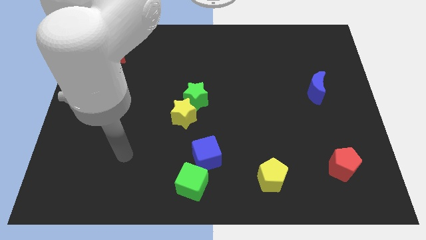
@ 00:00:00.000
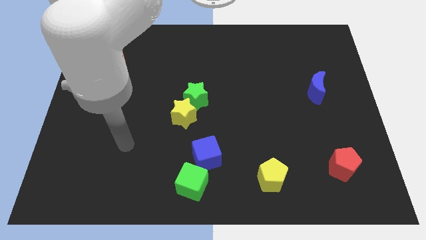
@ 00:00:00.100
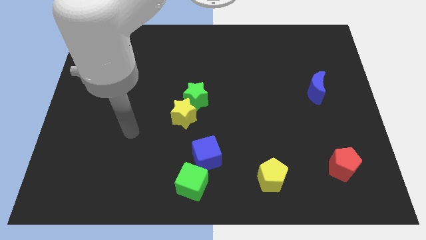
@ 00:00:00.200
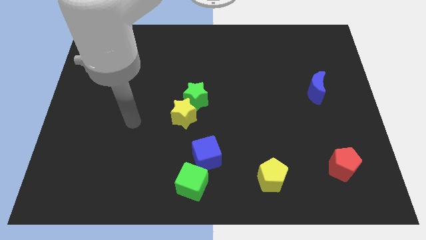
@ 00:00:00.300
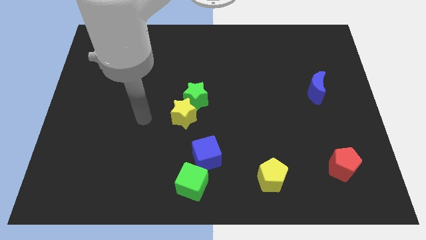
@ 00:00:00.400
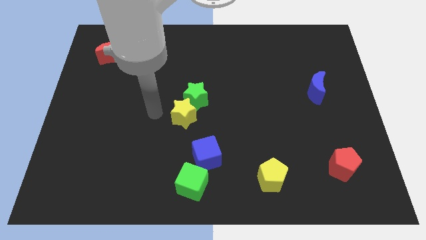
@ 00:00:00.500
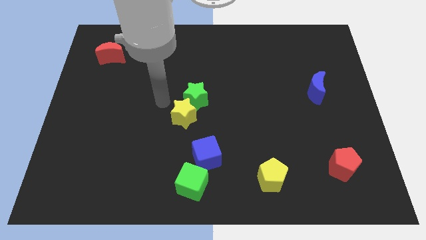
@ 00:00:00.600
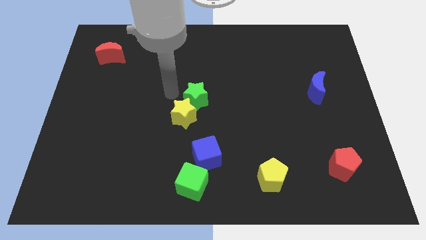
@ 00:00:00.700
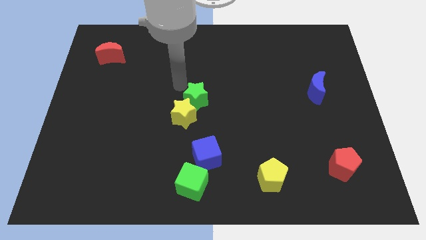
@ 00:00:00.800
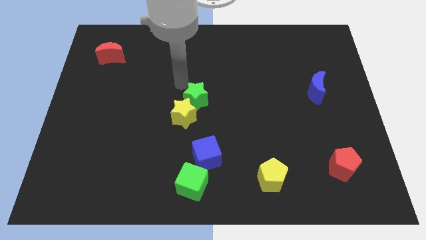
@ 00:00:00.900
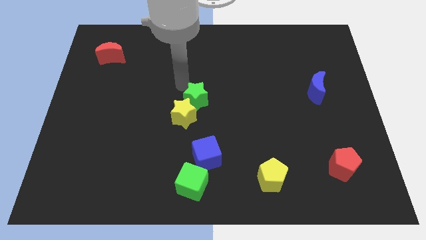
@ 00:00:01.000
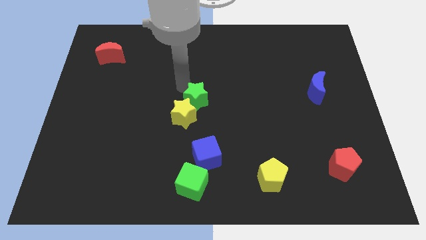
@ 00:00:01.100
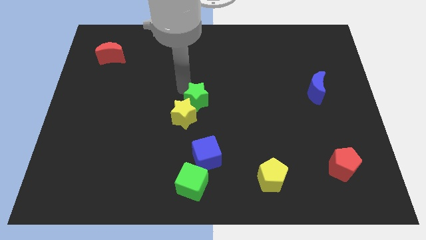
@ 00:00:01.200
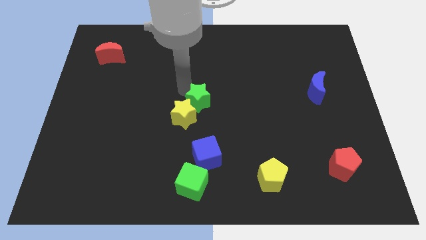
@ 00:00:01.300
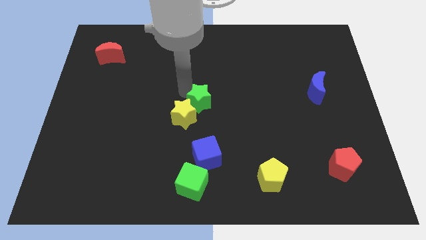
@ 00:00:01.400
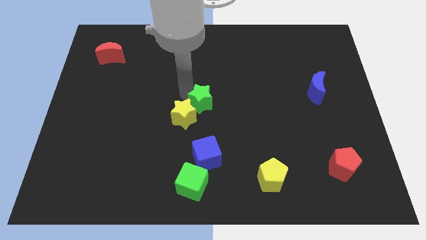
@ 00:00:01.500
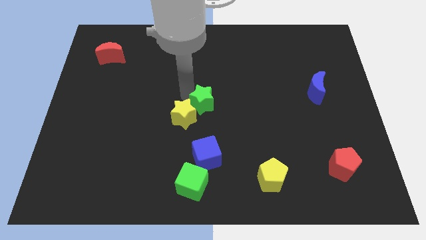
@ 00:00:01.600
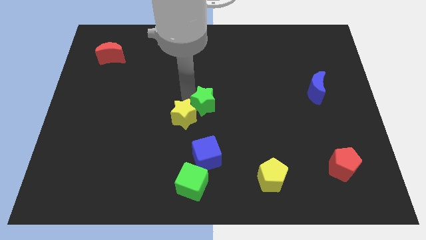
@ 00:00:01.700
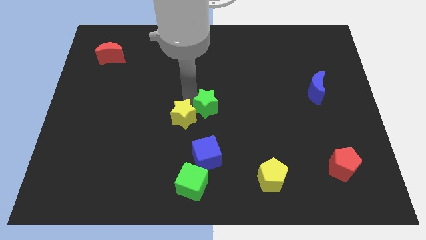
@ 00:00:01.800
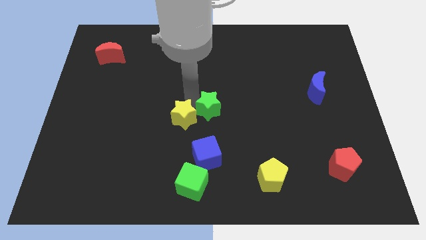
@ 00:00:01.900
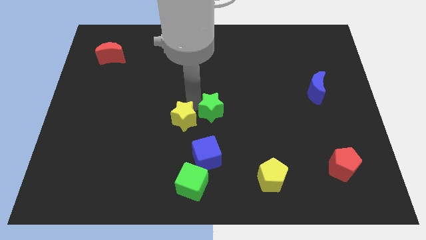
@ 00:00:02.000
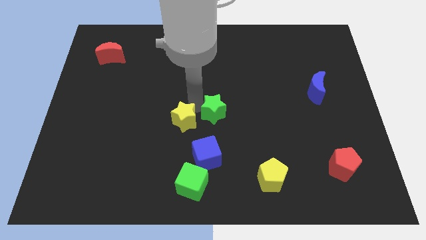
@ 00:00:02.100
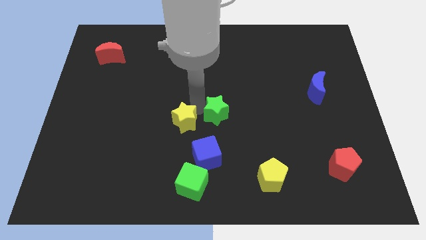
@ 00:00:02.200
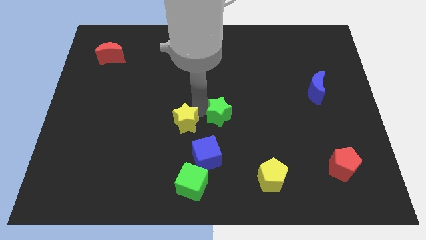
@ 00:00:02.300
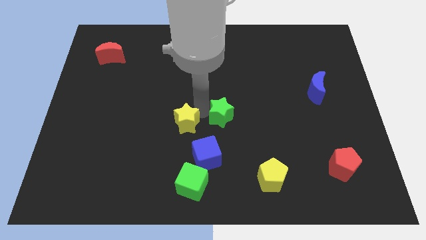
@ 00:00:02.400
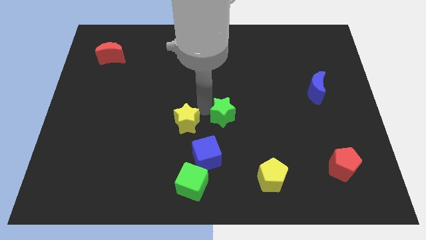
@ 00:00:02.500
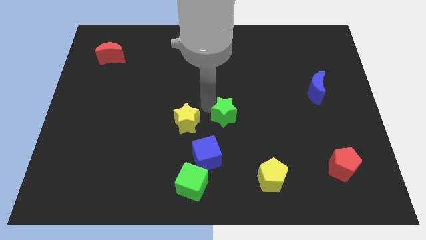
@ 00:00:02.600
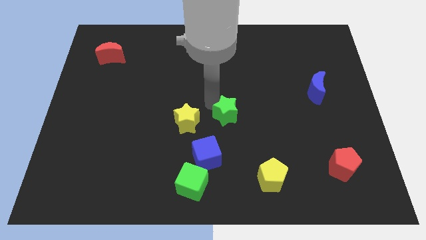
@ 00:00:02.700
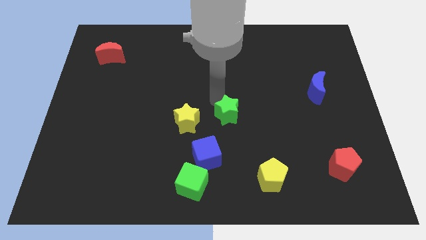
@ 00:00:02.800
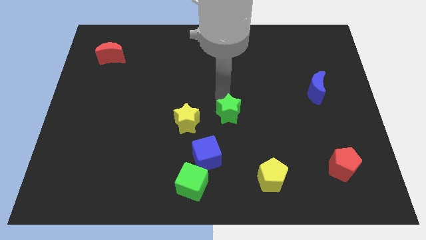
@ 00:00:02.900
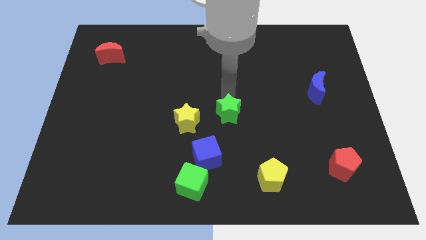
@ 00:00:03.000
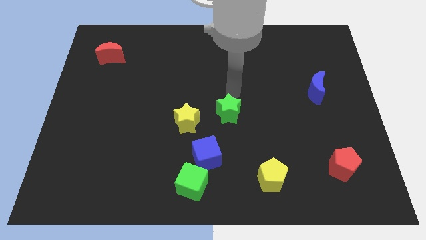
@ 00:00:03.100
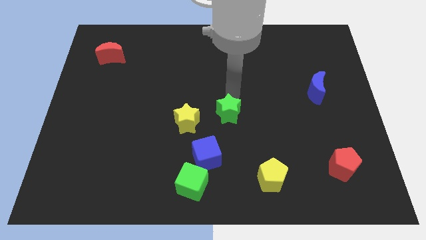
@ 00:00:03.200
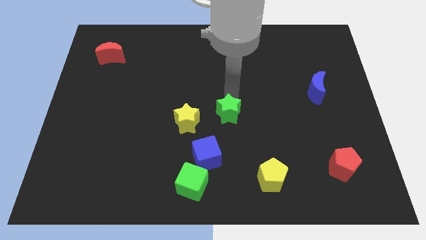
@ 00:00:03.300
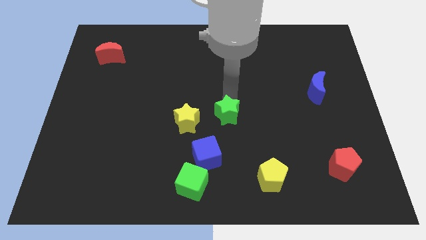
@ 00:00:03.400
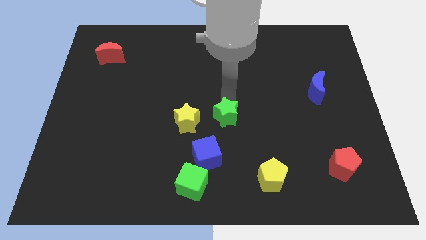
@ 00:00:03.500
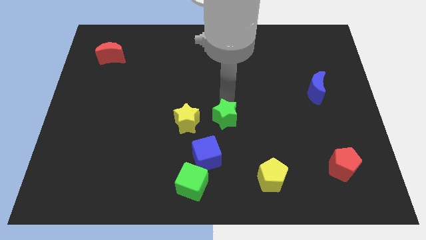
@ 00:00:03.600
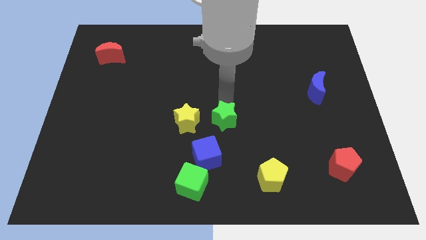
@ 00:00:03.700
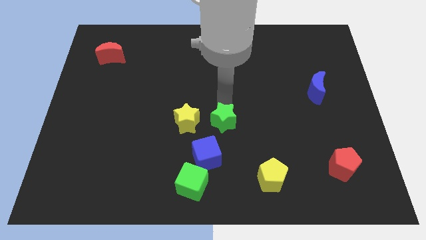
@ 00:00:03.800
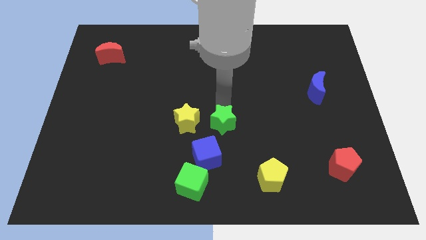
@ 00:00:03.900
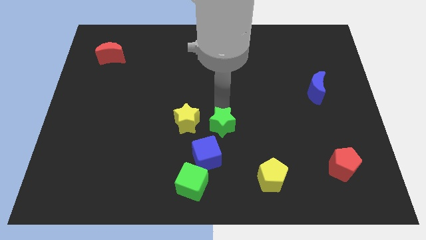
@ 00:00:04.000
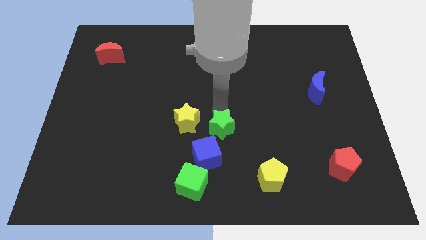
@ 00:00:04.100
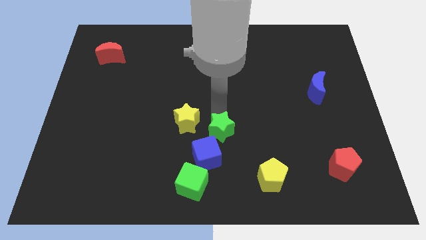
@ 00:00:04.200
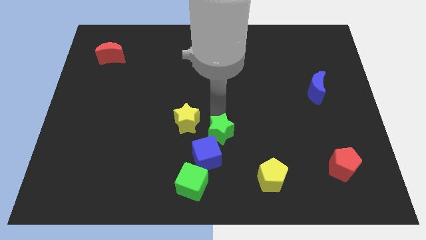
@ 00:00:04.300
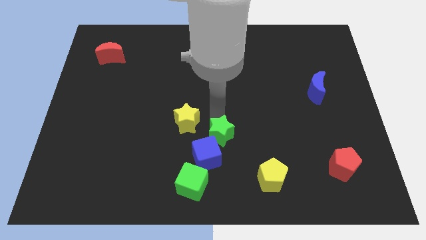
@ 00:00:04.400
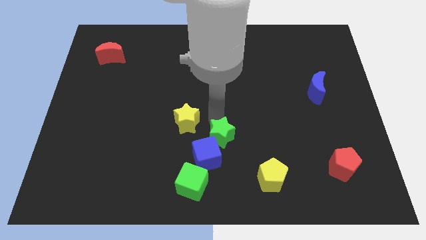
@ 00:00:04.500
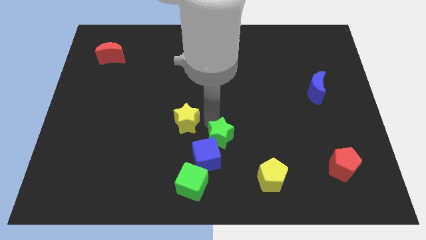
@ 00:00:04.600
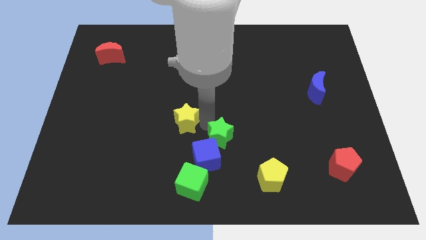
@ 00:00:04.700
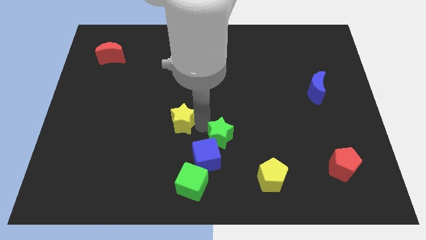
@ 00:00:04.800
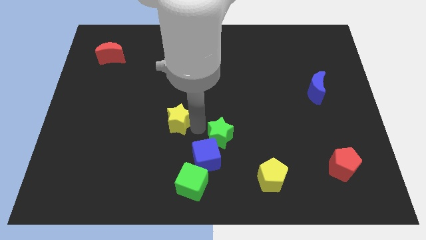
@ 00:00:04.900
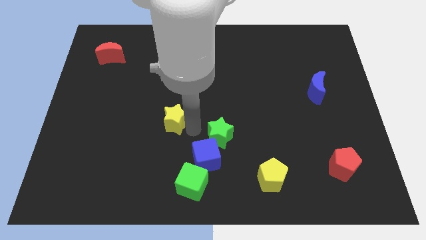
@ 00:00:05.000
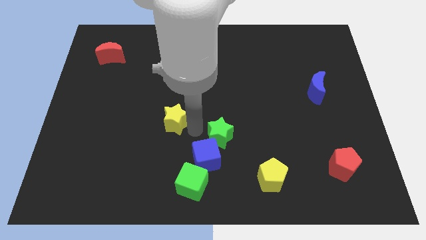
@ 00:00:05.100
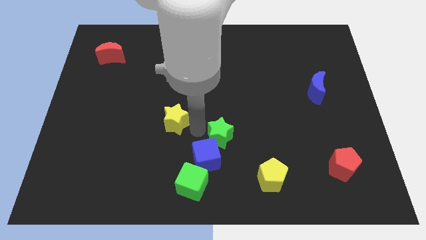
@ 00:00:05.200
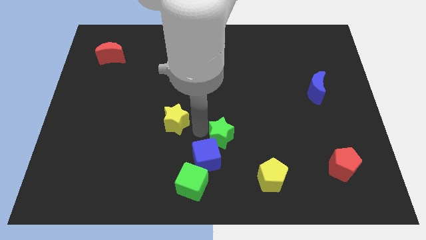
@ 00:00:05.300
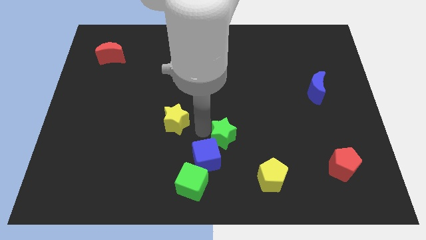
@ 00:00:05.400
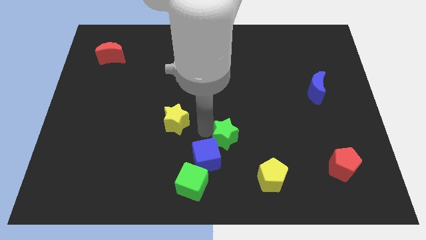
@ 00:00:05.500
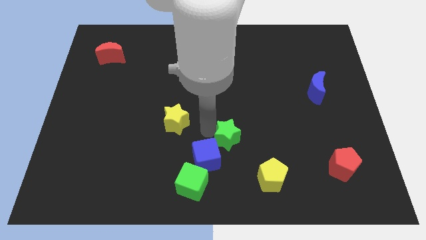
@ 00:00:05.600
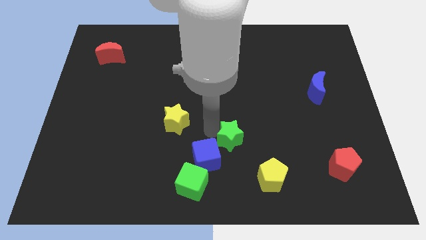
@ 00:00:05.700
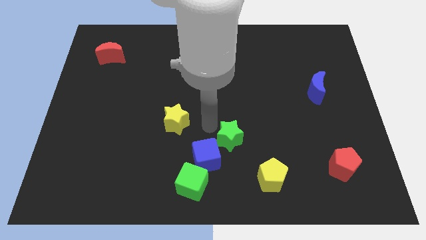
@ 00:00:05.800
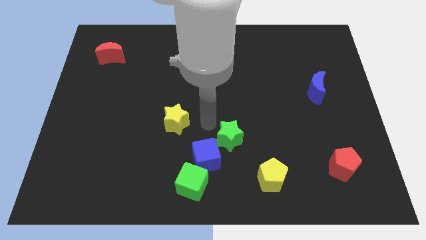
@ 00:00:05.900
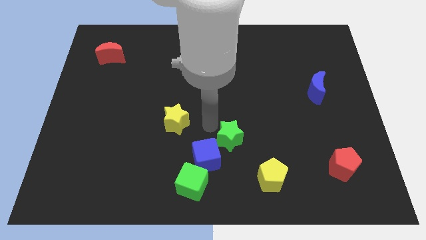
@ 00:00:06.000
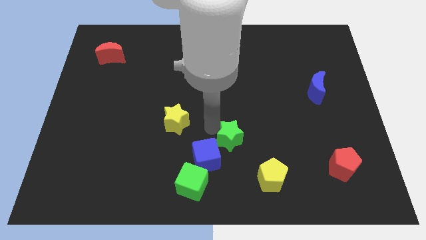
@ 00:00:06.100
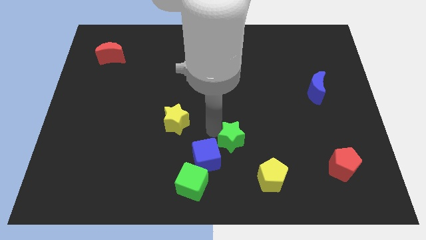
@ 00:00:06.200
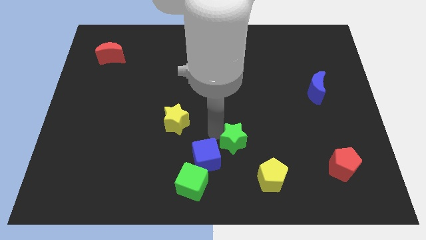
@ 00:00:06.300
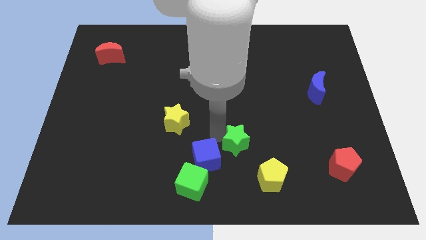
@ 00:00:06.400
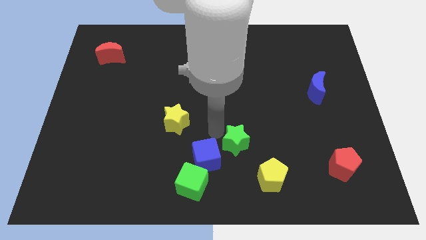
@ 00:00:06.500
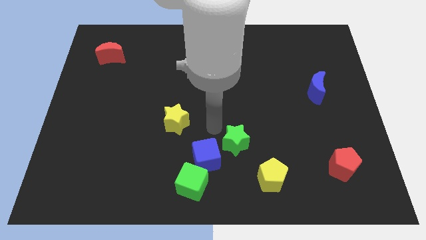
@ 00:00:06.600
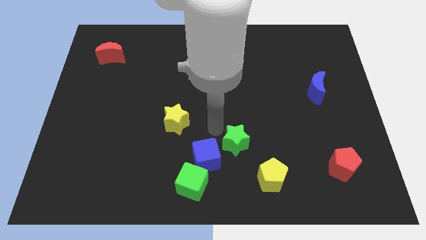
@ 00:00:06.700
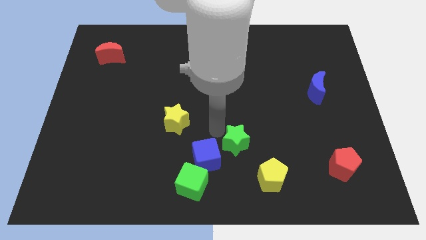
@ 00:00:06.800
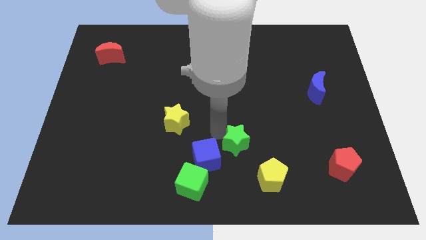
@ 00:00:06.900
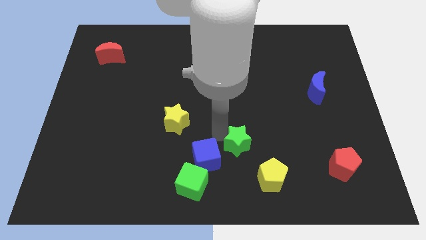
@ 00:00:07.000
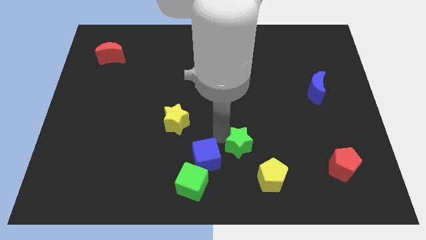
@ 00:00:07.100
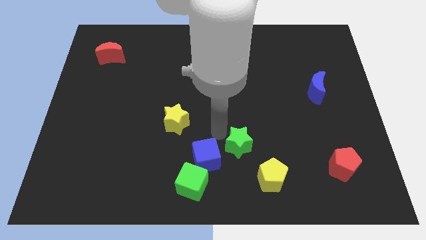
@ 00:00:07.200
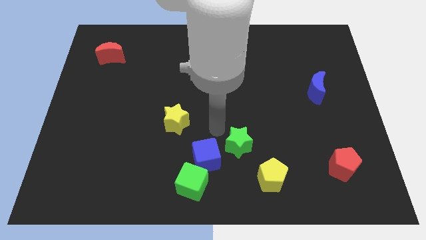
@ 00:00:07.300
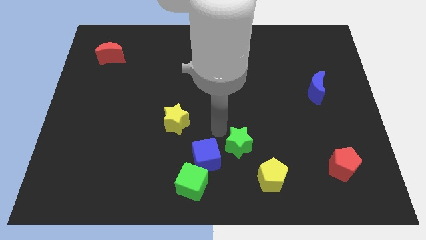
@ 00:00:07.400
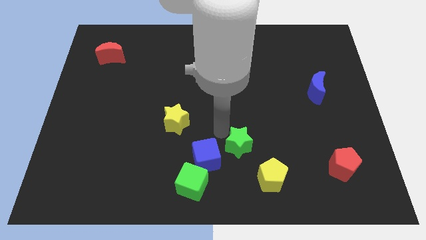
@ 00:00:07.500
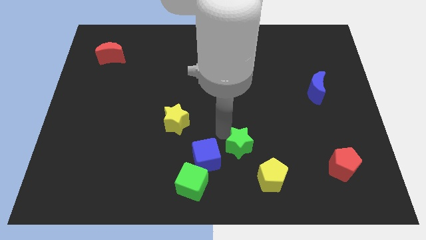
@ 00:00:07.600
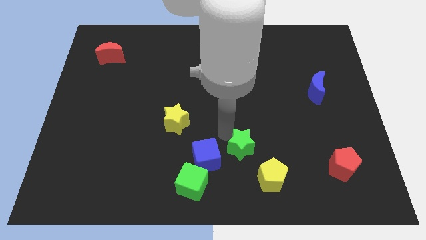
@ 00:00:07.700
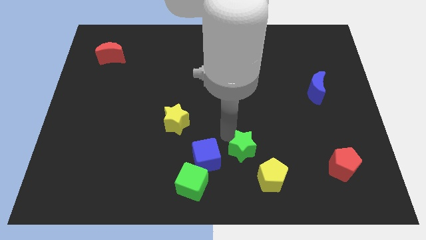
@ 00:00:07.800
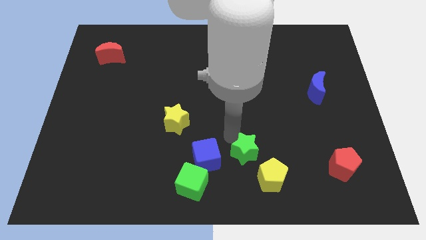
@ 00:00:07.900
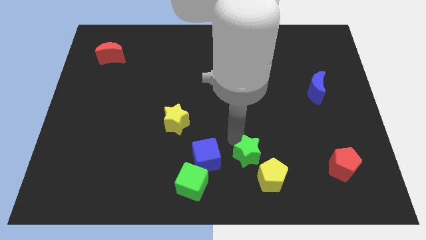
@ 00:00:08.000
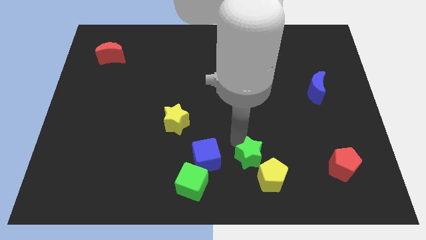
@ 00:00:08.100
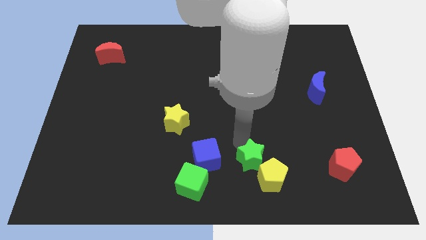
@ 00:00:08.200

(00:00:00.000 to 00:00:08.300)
slide the green star to the yellow pentagon
